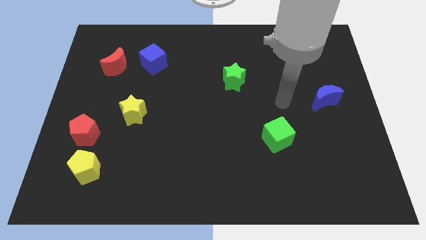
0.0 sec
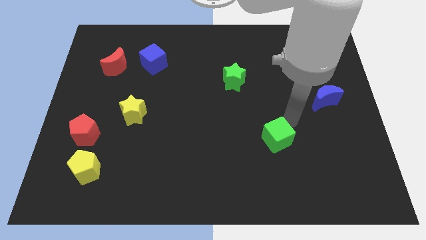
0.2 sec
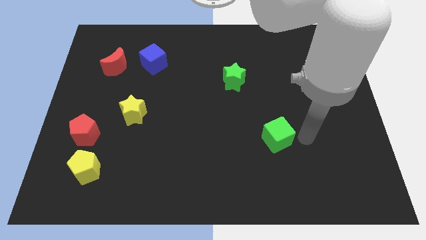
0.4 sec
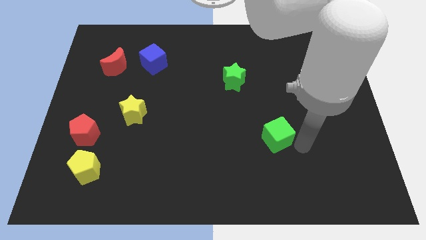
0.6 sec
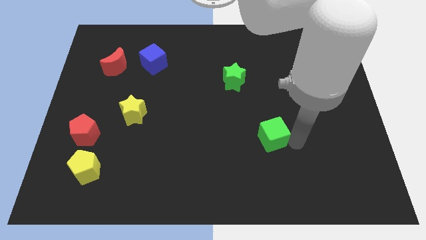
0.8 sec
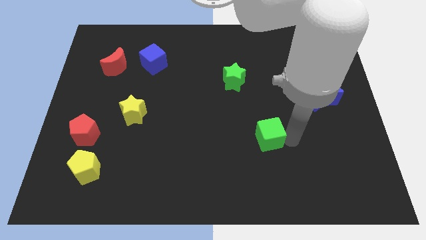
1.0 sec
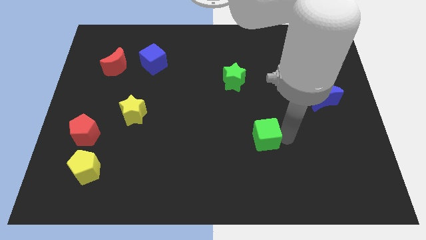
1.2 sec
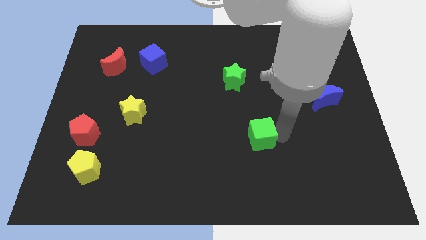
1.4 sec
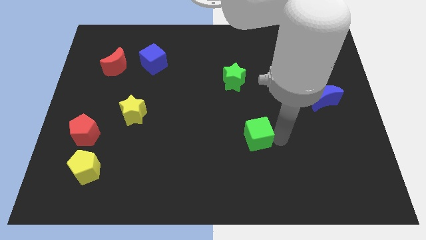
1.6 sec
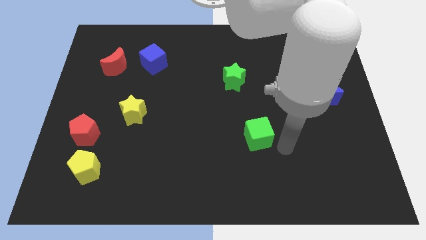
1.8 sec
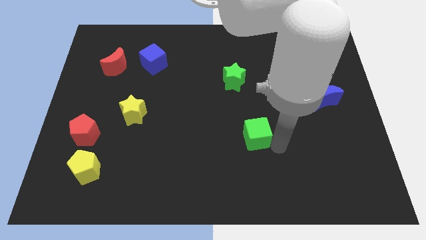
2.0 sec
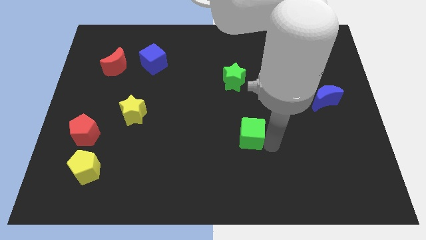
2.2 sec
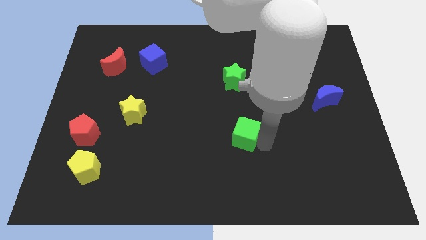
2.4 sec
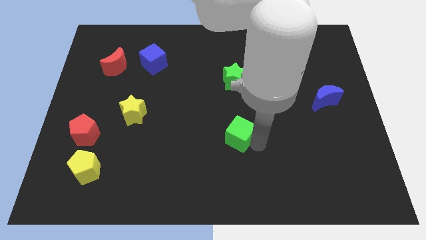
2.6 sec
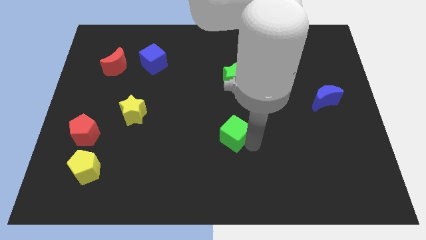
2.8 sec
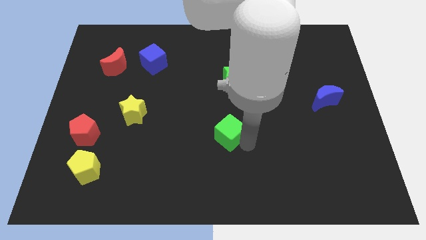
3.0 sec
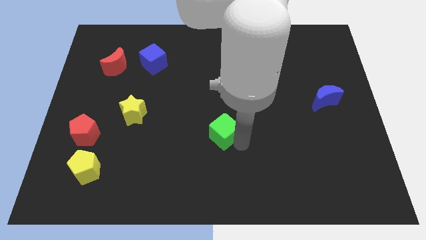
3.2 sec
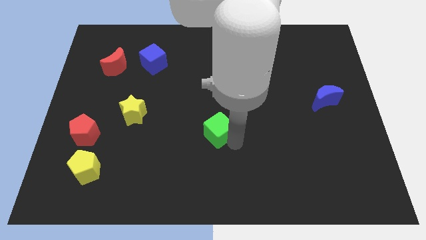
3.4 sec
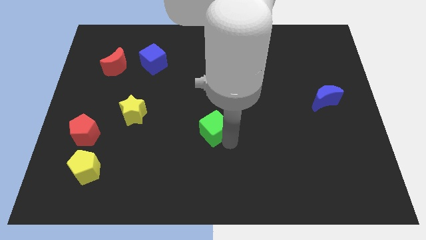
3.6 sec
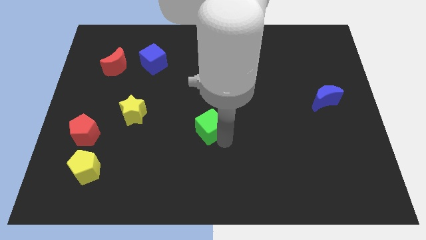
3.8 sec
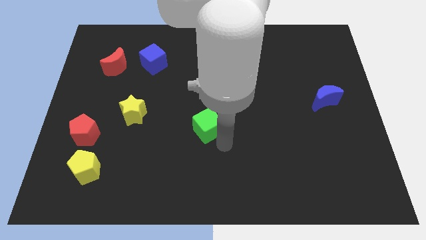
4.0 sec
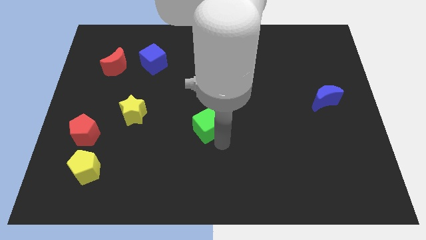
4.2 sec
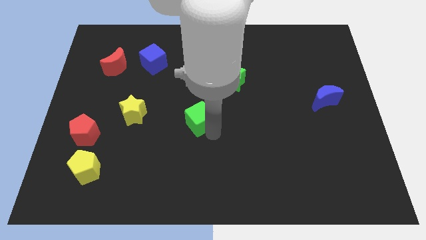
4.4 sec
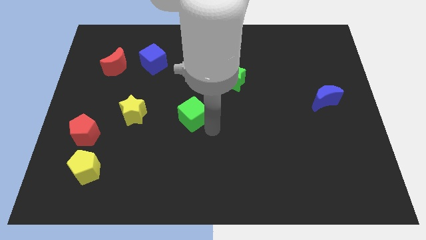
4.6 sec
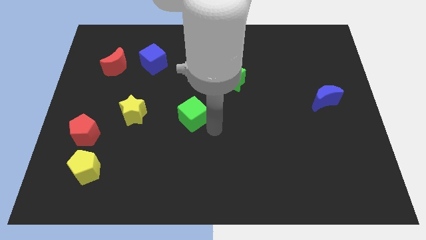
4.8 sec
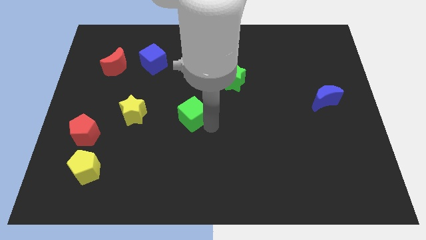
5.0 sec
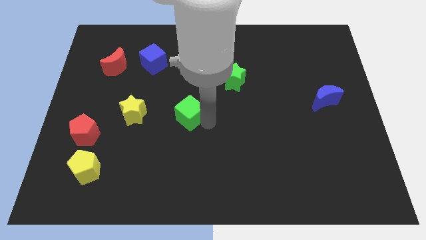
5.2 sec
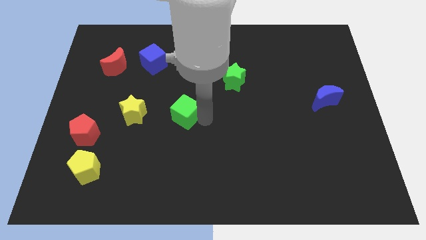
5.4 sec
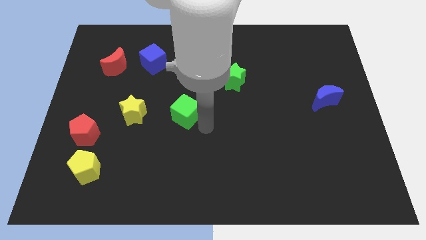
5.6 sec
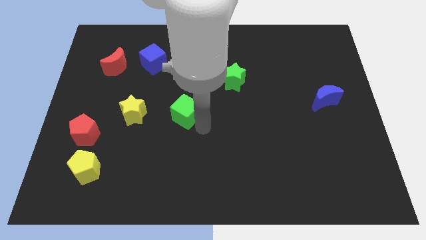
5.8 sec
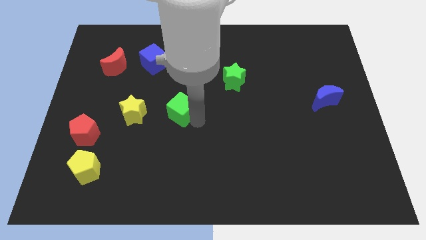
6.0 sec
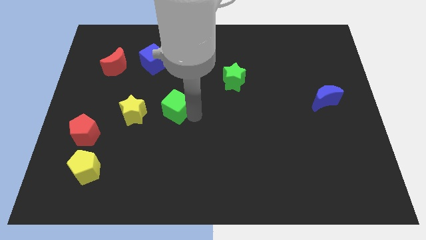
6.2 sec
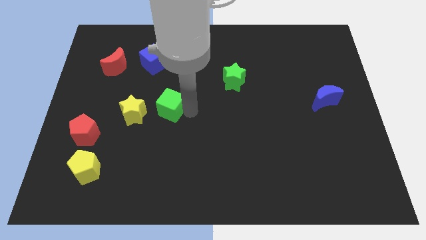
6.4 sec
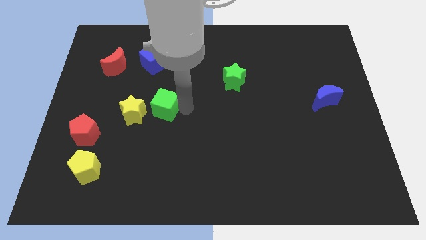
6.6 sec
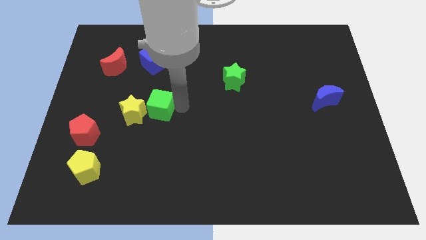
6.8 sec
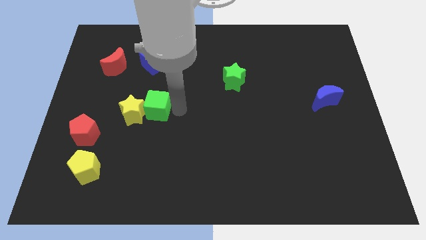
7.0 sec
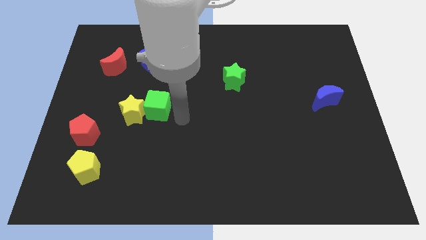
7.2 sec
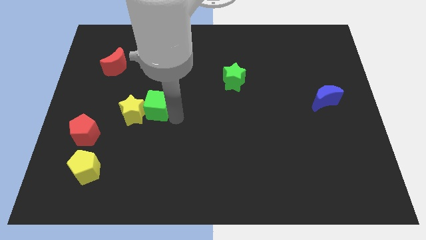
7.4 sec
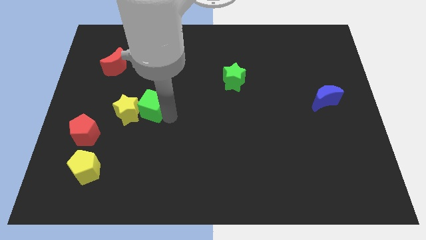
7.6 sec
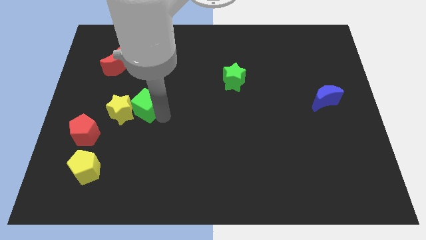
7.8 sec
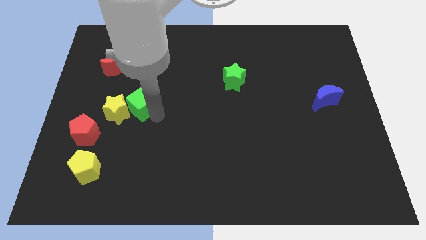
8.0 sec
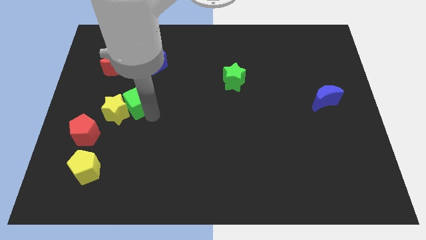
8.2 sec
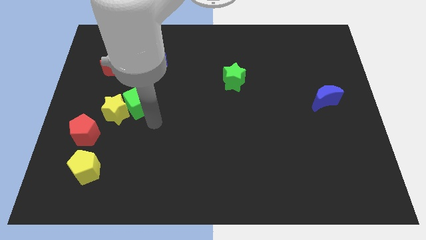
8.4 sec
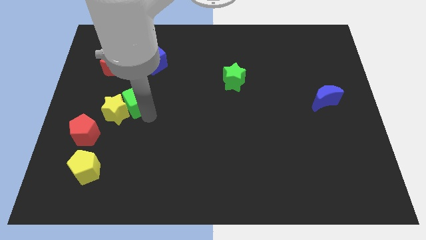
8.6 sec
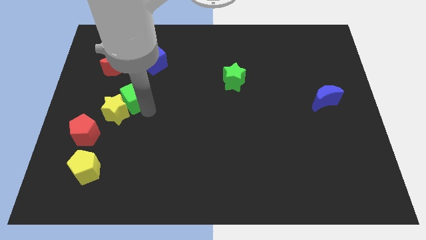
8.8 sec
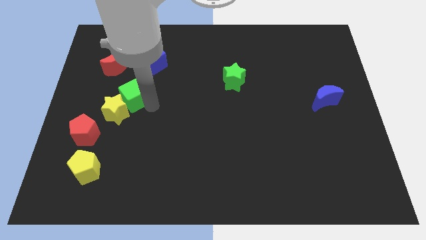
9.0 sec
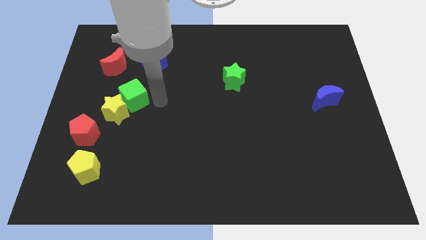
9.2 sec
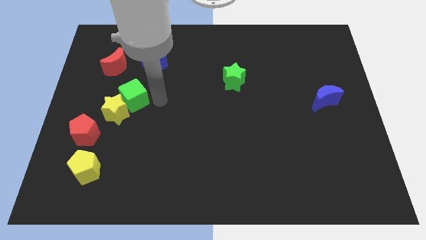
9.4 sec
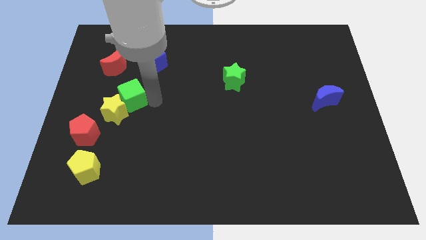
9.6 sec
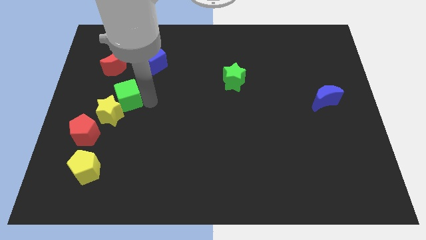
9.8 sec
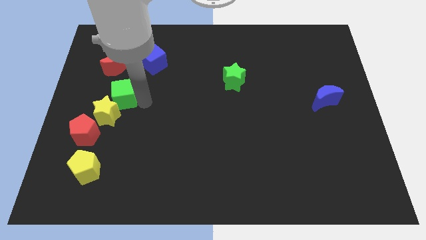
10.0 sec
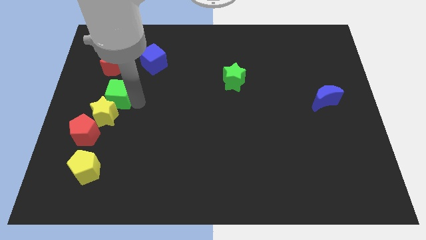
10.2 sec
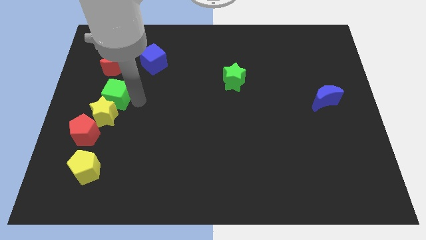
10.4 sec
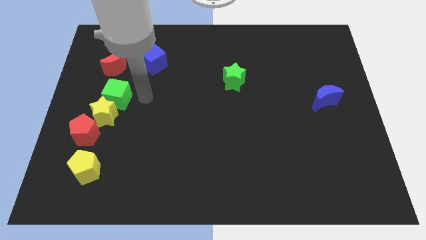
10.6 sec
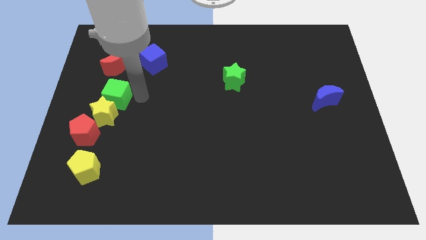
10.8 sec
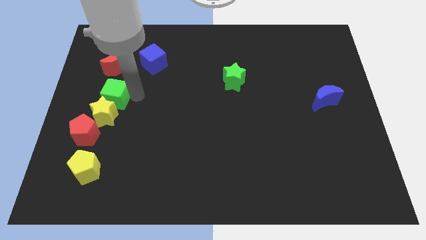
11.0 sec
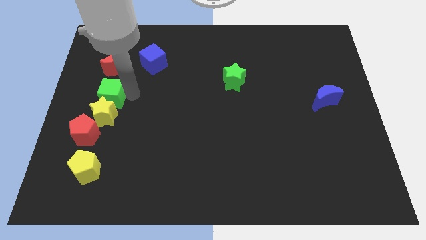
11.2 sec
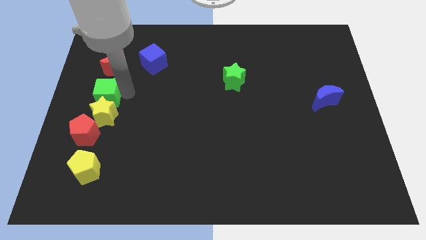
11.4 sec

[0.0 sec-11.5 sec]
put the green cube to the center left

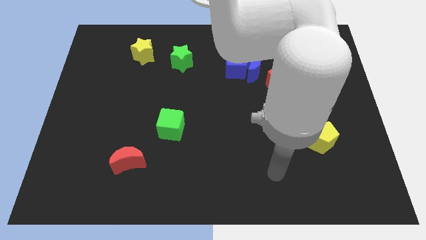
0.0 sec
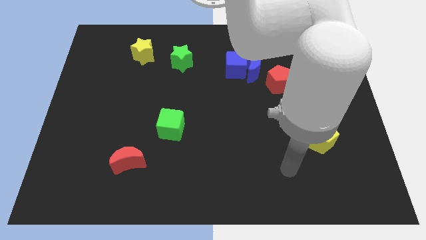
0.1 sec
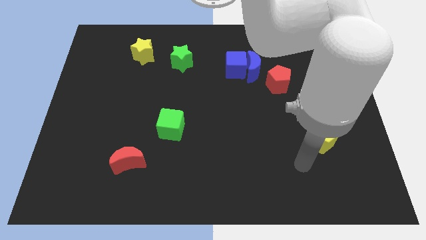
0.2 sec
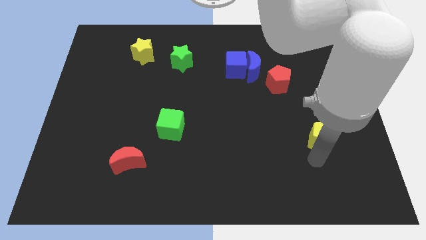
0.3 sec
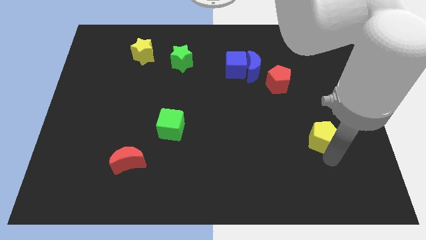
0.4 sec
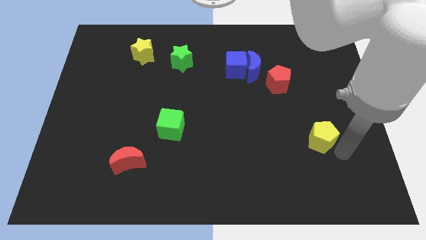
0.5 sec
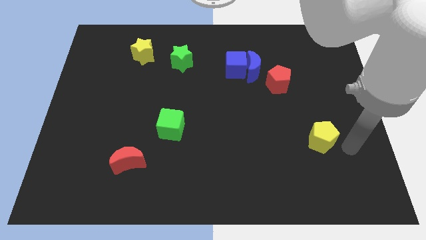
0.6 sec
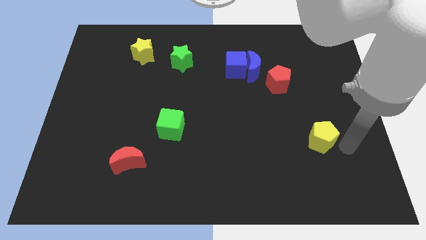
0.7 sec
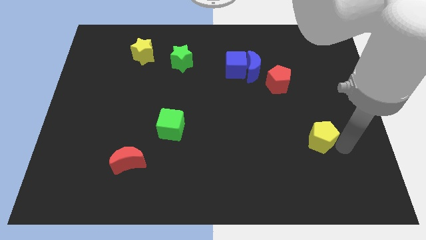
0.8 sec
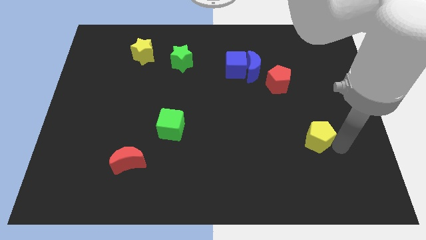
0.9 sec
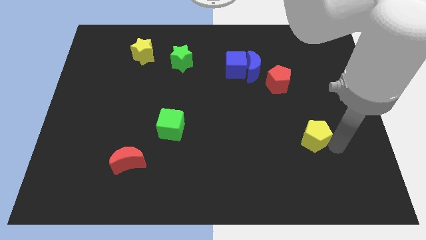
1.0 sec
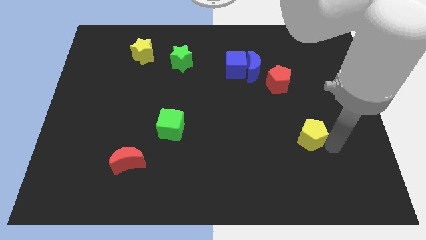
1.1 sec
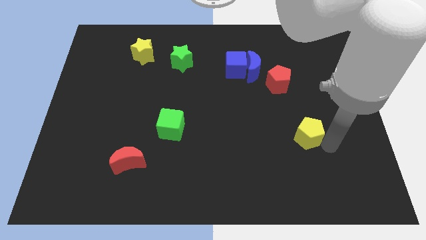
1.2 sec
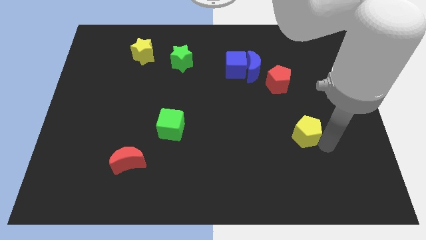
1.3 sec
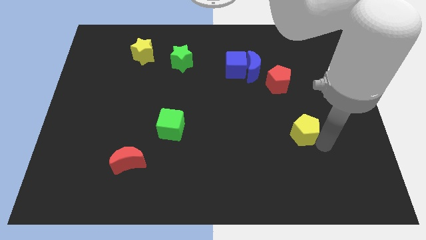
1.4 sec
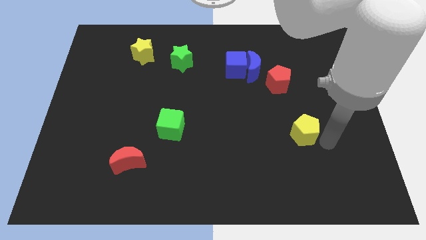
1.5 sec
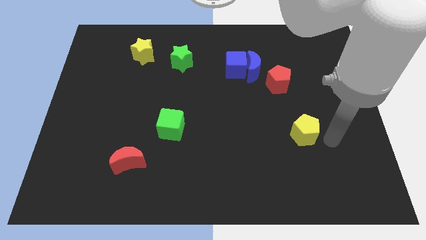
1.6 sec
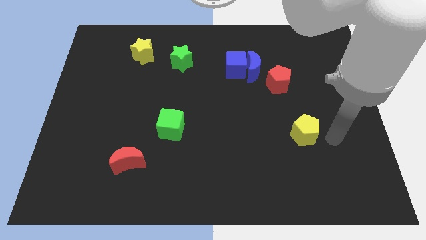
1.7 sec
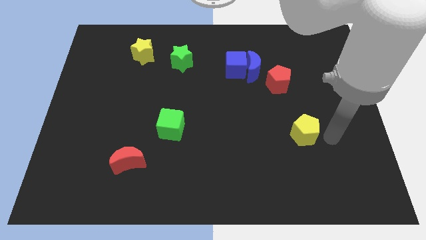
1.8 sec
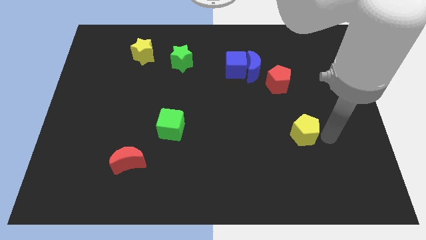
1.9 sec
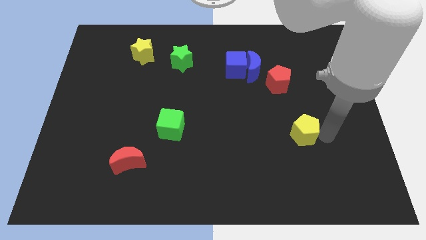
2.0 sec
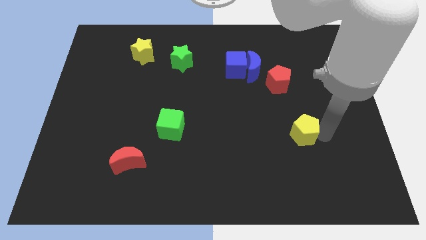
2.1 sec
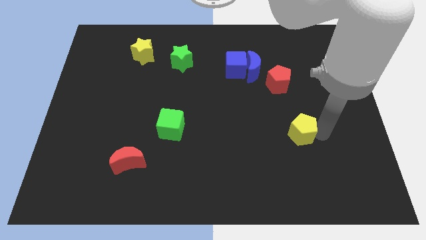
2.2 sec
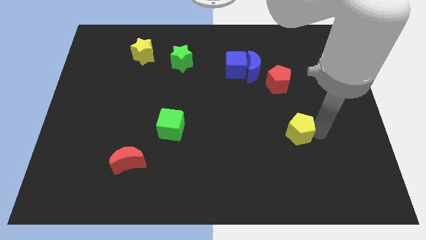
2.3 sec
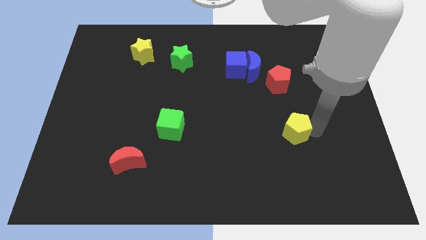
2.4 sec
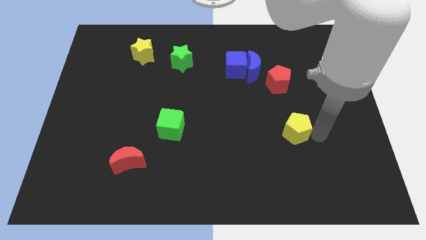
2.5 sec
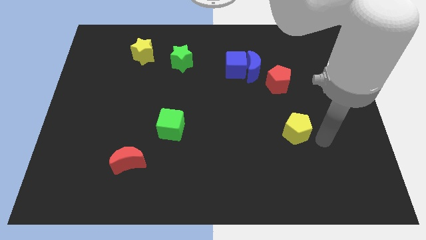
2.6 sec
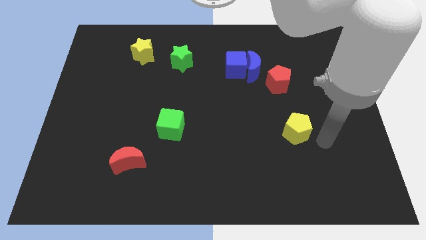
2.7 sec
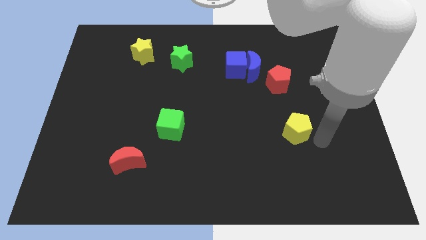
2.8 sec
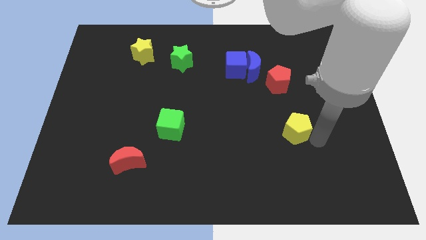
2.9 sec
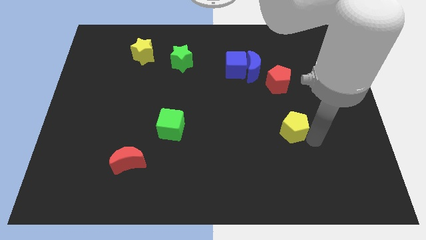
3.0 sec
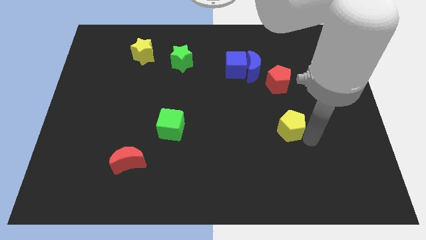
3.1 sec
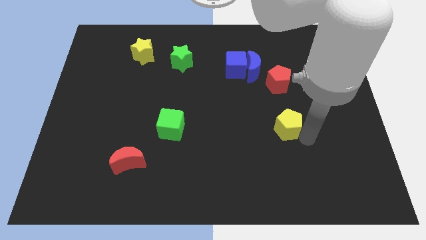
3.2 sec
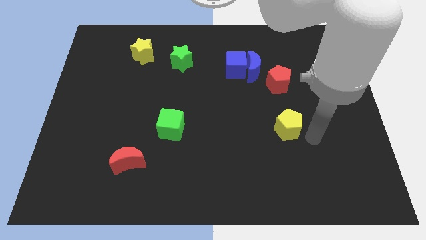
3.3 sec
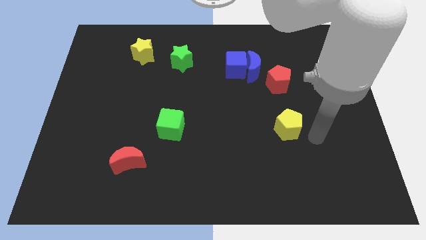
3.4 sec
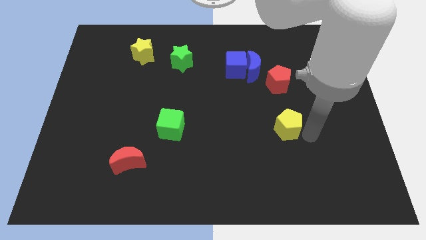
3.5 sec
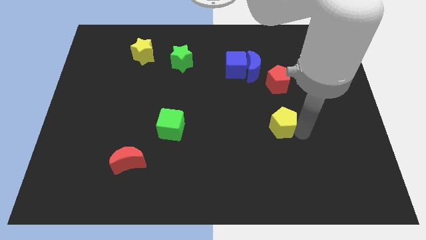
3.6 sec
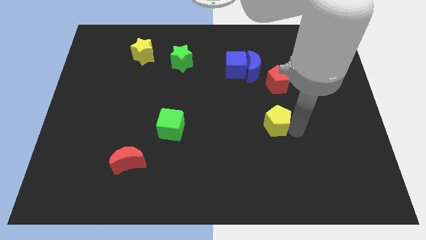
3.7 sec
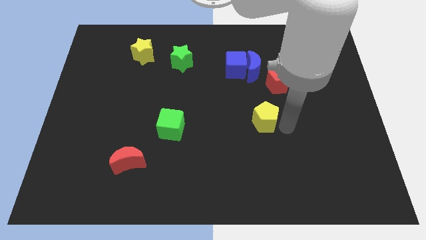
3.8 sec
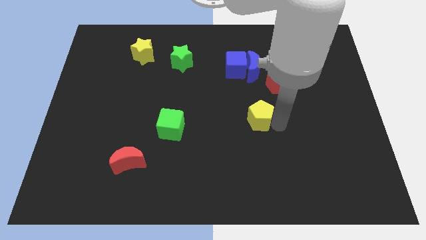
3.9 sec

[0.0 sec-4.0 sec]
slide the yellow pentagon to the center of the board
